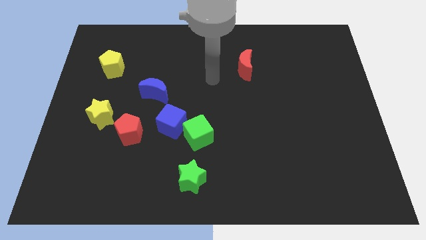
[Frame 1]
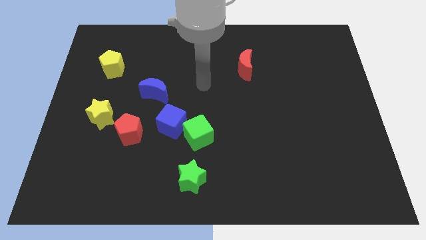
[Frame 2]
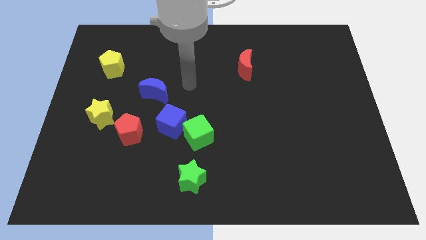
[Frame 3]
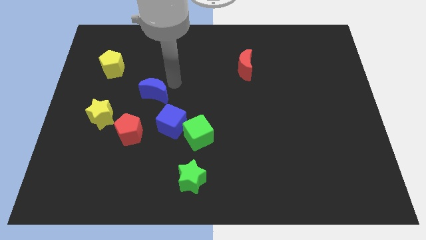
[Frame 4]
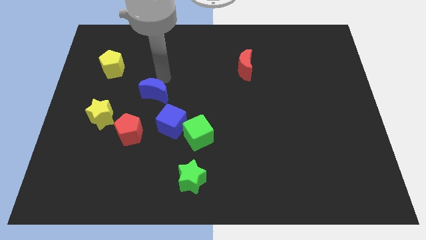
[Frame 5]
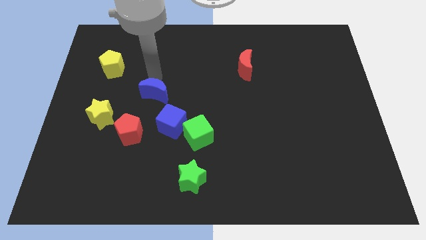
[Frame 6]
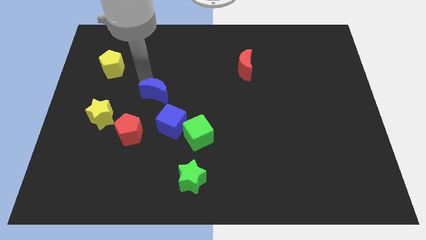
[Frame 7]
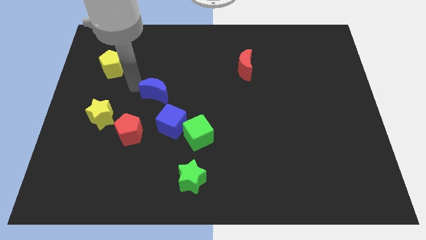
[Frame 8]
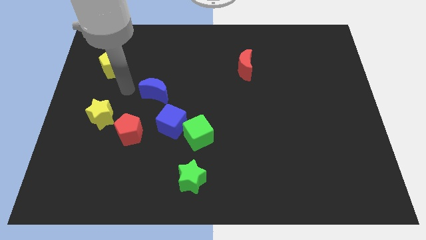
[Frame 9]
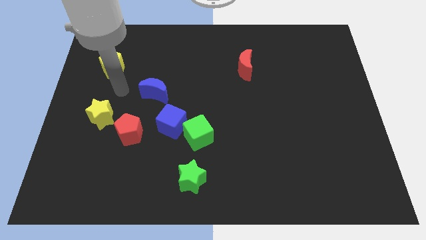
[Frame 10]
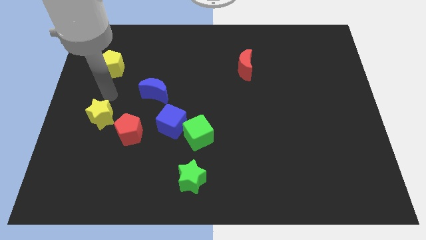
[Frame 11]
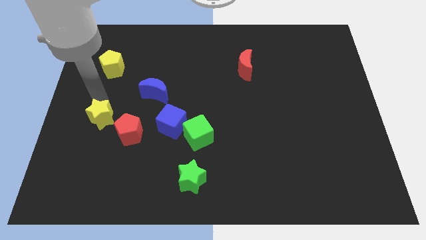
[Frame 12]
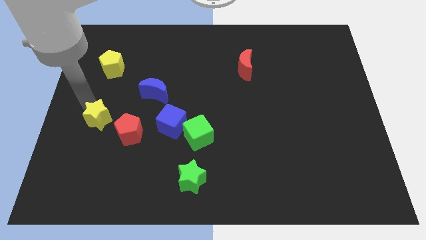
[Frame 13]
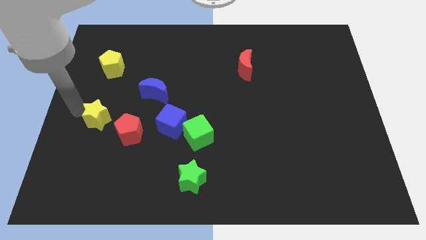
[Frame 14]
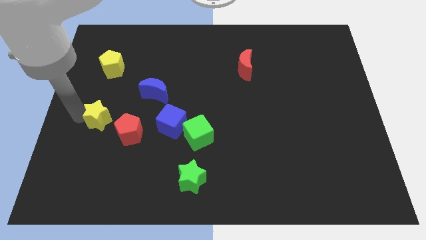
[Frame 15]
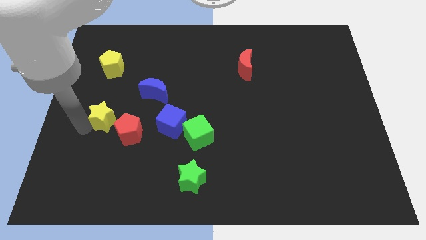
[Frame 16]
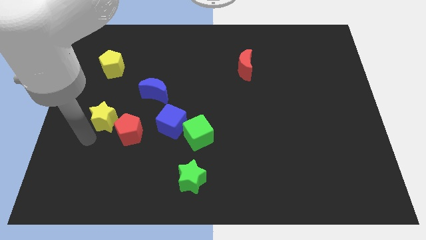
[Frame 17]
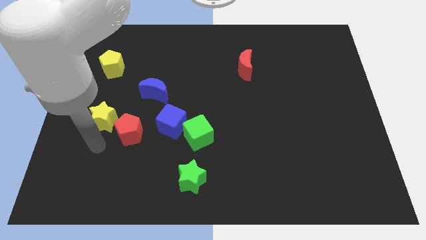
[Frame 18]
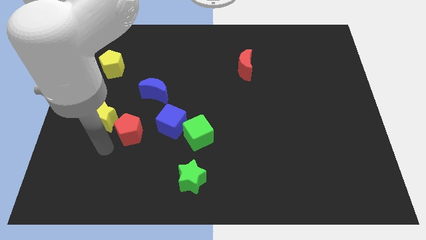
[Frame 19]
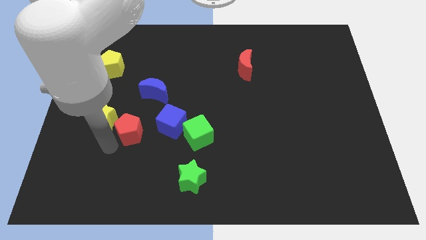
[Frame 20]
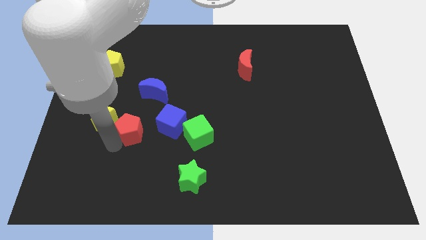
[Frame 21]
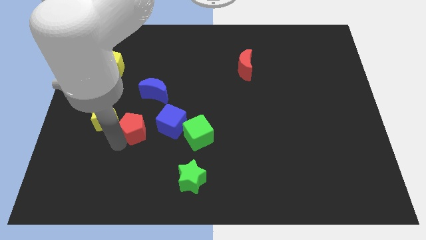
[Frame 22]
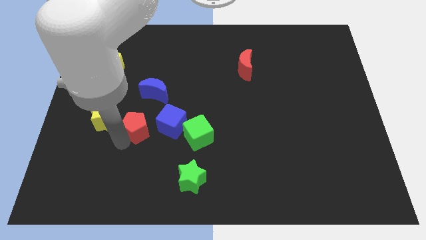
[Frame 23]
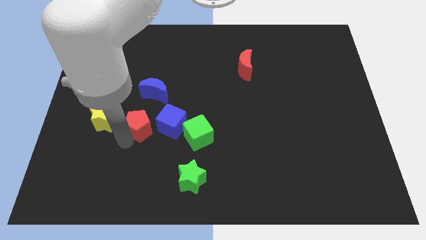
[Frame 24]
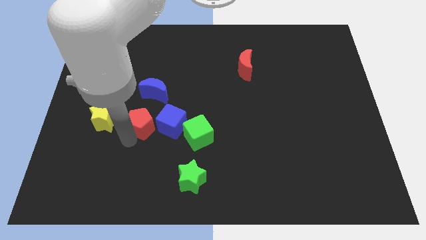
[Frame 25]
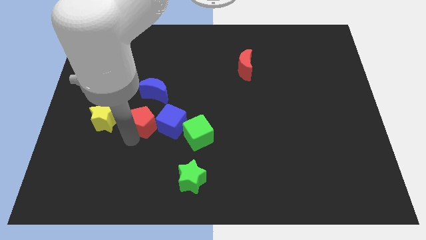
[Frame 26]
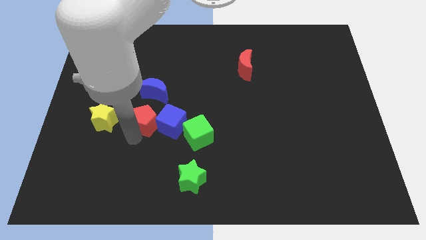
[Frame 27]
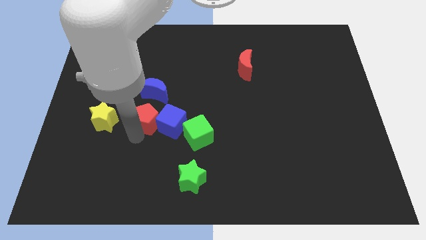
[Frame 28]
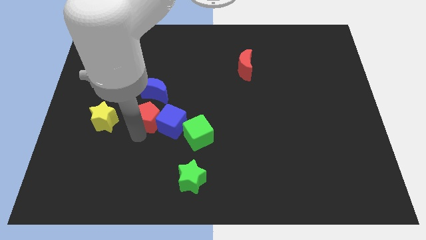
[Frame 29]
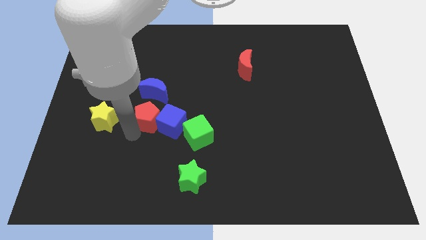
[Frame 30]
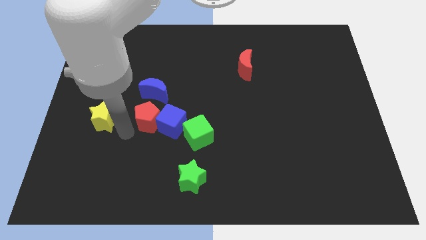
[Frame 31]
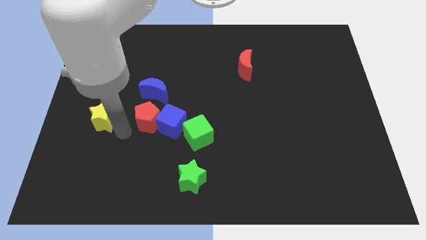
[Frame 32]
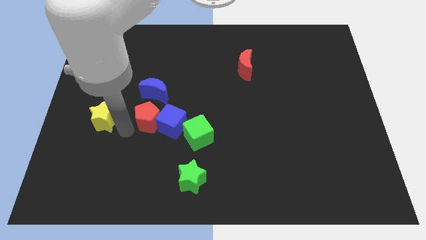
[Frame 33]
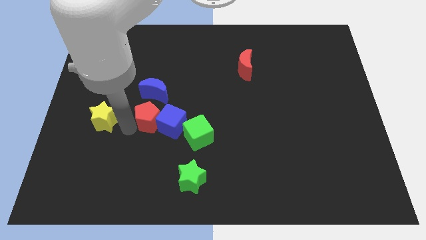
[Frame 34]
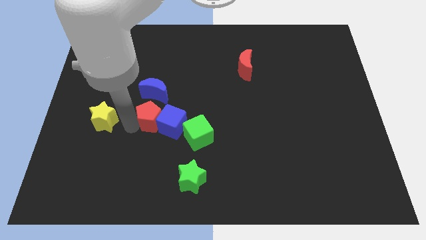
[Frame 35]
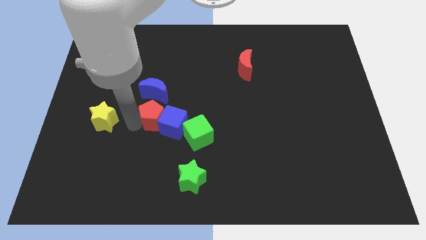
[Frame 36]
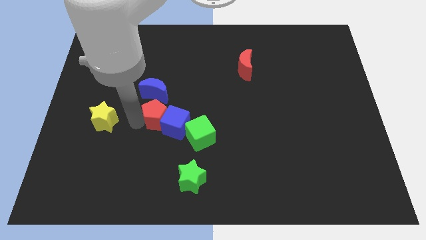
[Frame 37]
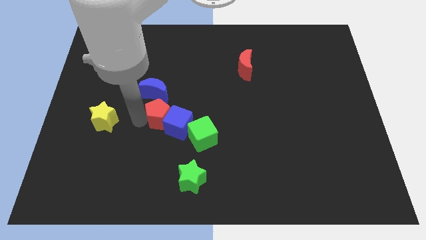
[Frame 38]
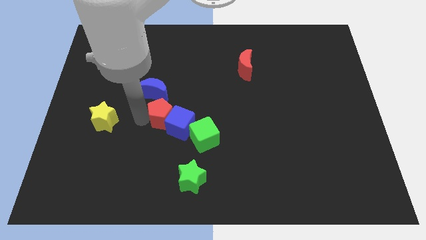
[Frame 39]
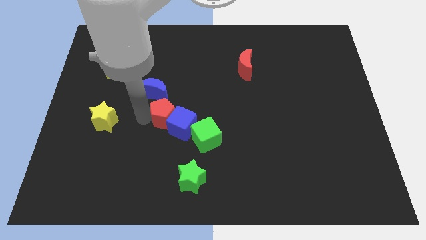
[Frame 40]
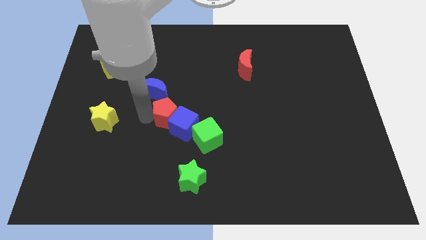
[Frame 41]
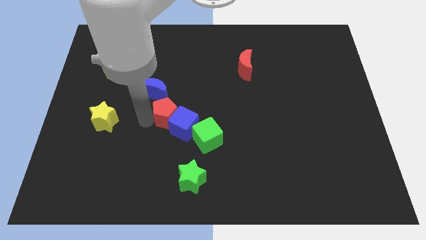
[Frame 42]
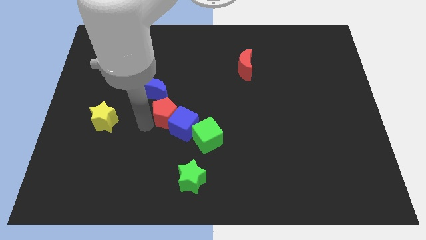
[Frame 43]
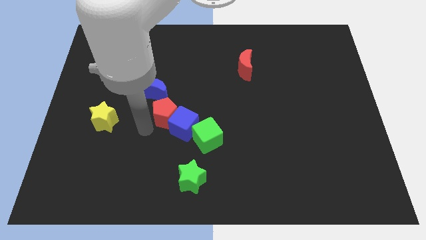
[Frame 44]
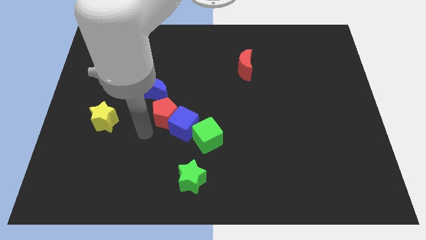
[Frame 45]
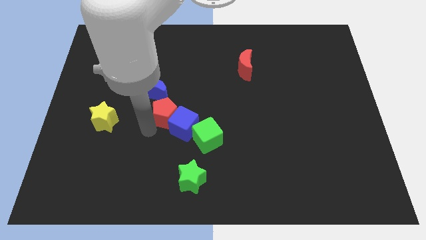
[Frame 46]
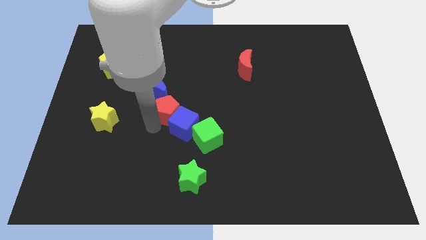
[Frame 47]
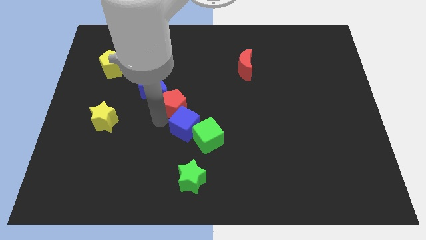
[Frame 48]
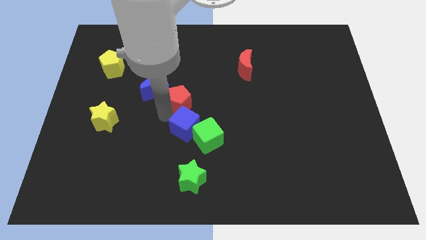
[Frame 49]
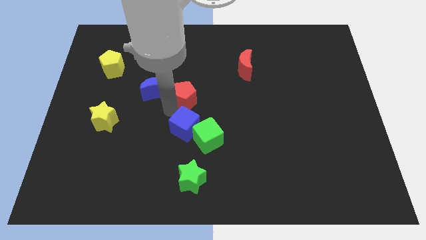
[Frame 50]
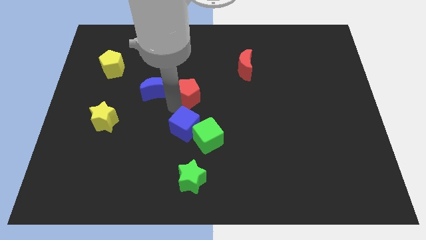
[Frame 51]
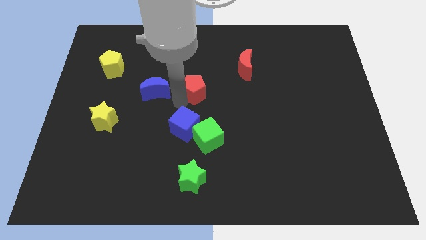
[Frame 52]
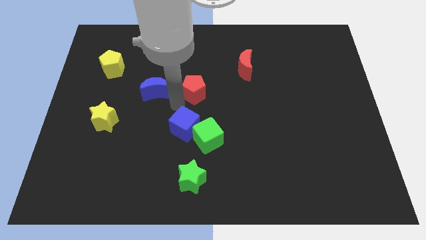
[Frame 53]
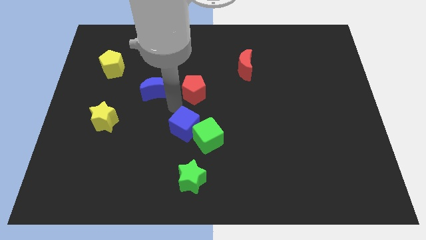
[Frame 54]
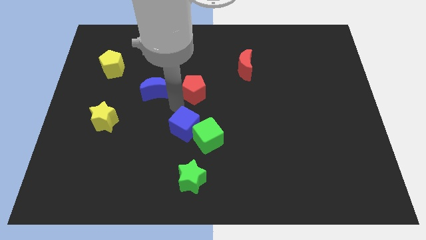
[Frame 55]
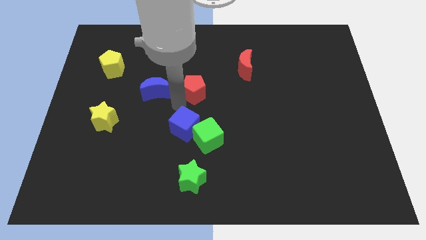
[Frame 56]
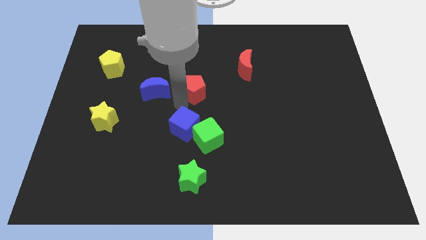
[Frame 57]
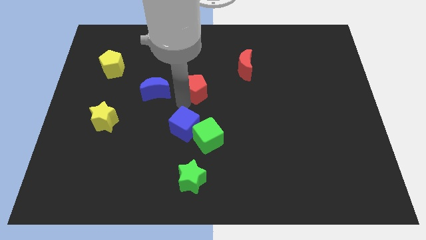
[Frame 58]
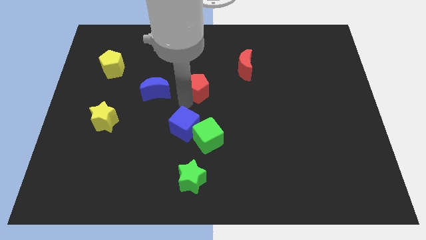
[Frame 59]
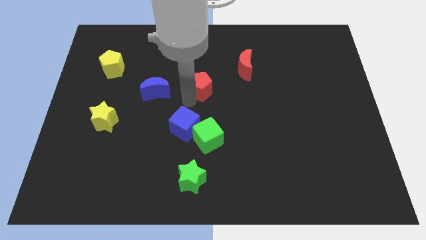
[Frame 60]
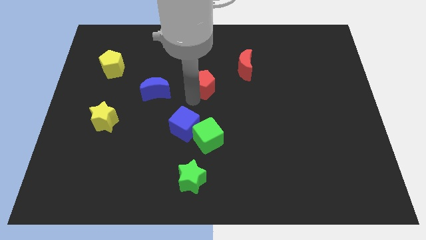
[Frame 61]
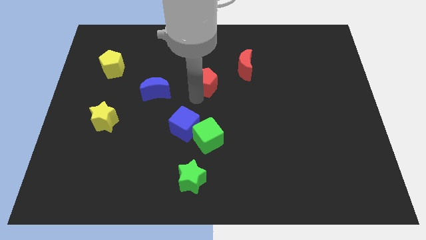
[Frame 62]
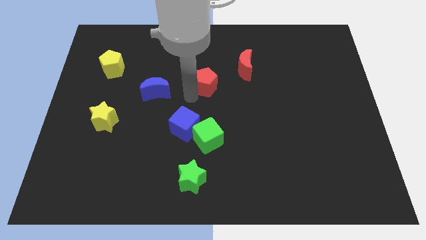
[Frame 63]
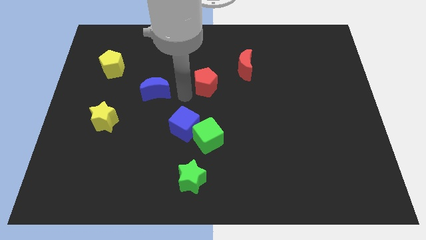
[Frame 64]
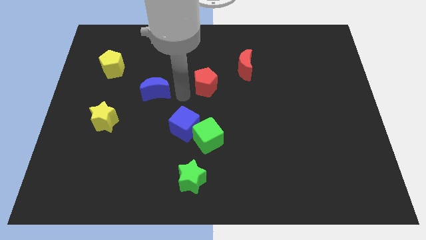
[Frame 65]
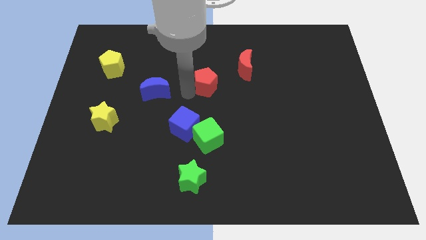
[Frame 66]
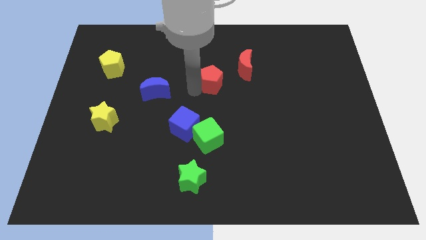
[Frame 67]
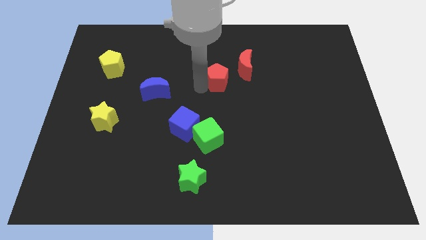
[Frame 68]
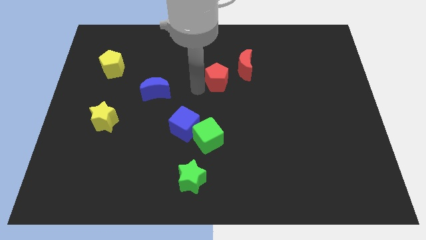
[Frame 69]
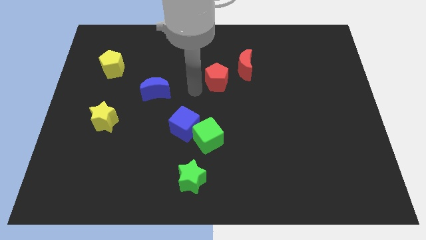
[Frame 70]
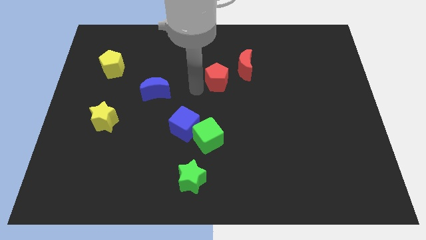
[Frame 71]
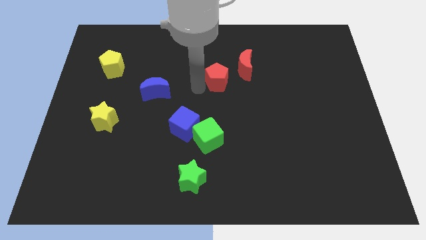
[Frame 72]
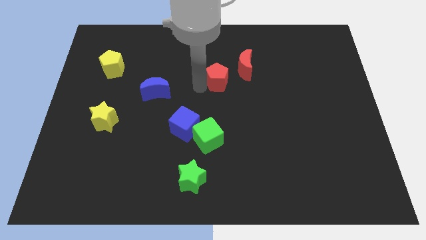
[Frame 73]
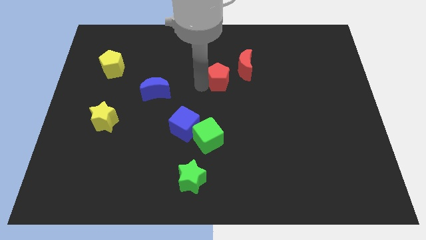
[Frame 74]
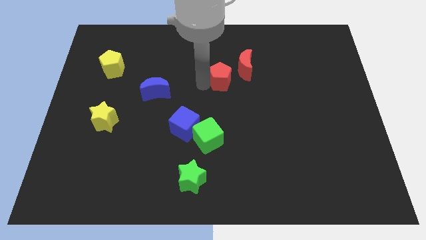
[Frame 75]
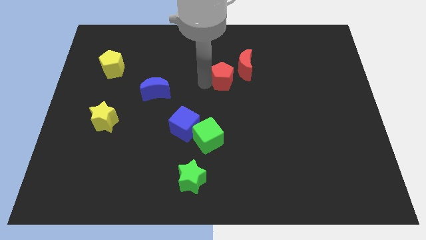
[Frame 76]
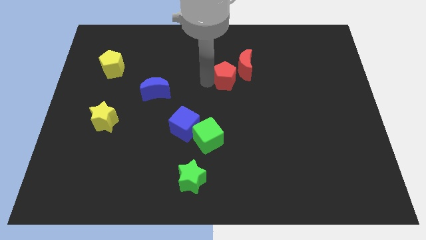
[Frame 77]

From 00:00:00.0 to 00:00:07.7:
move the red pentagon next to the red moon
